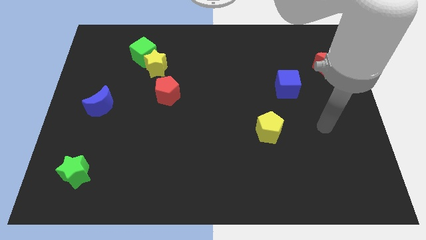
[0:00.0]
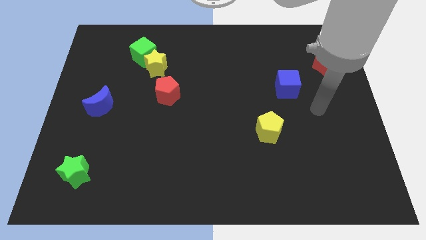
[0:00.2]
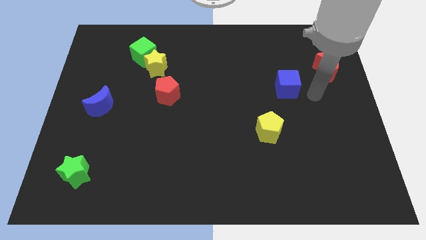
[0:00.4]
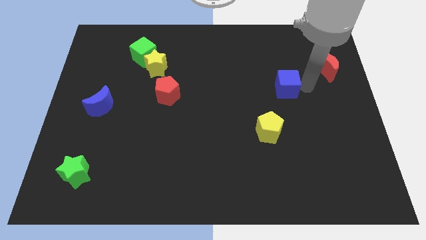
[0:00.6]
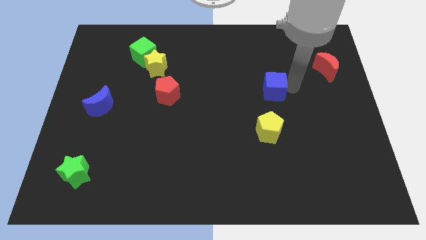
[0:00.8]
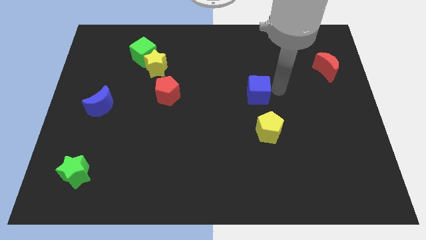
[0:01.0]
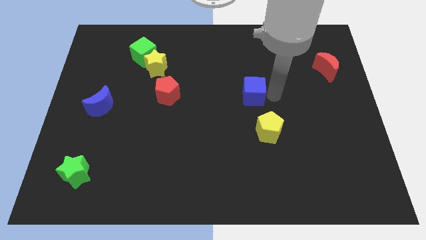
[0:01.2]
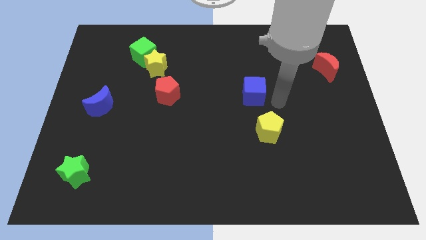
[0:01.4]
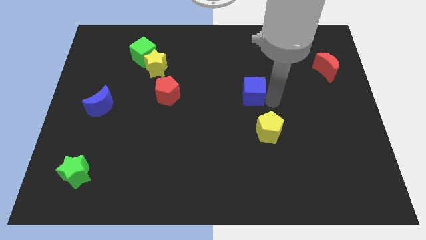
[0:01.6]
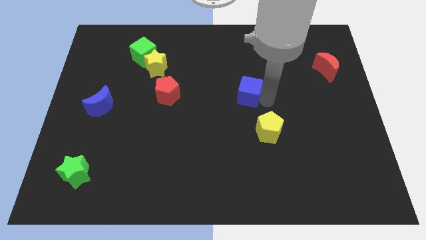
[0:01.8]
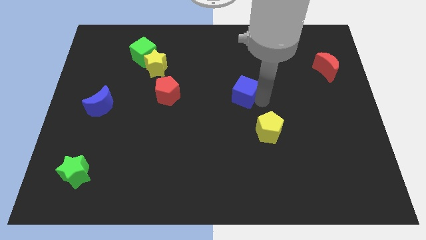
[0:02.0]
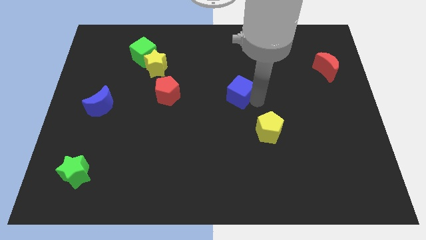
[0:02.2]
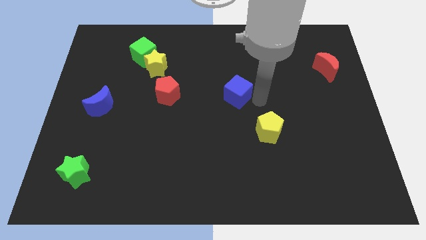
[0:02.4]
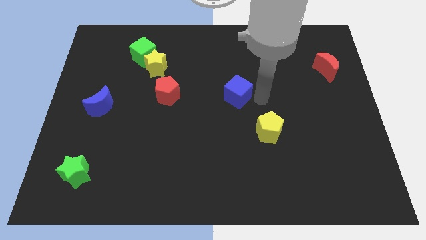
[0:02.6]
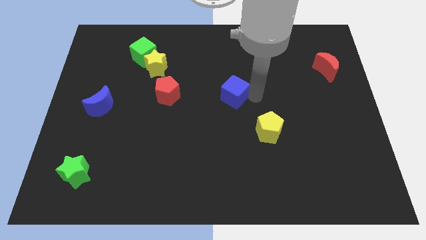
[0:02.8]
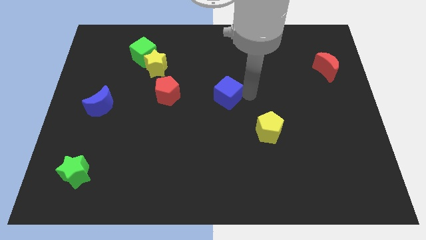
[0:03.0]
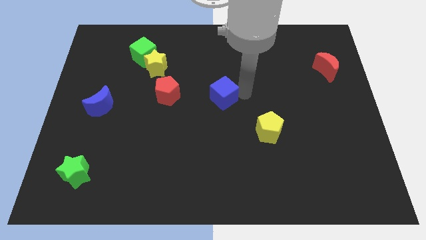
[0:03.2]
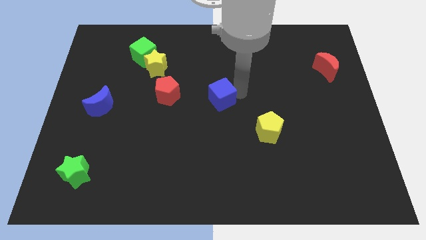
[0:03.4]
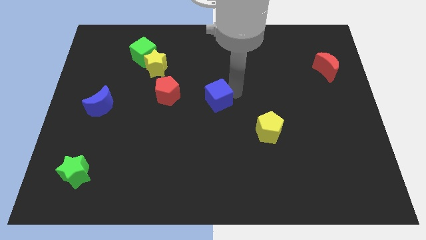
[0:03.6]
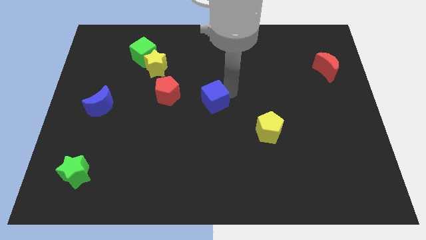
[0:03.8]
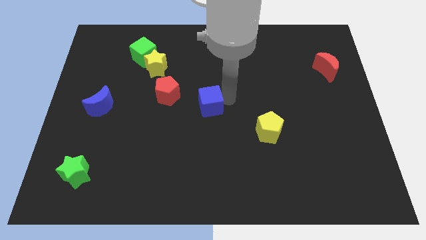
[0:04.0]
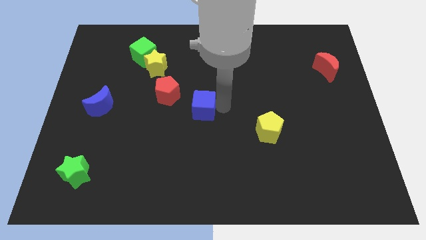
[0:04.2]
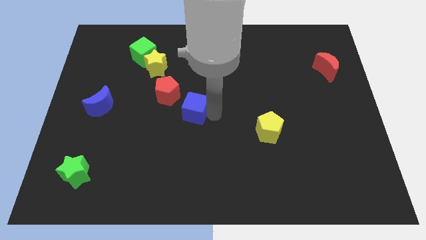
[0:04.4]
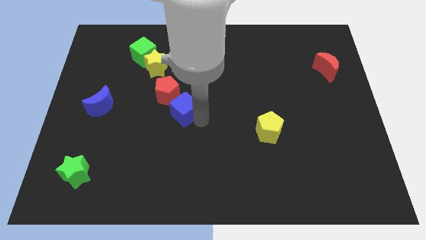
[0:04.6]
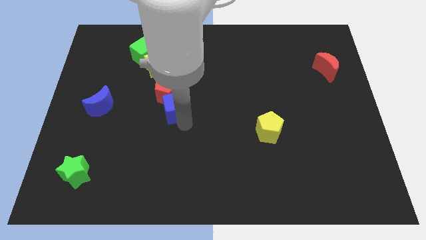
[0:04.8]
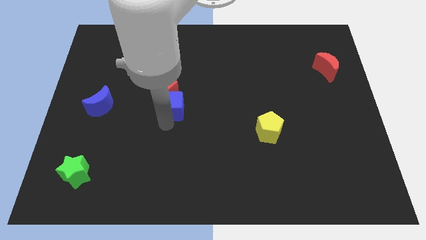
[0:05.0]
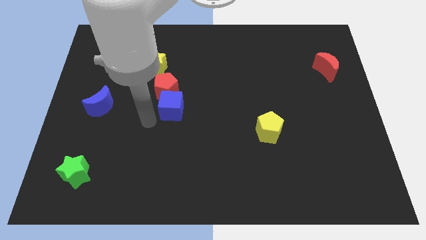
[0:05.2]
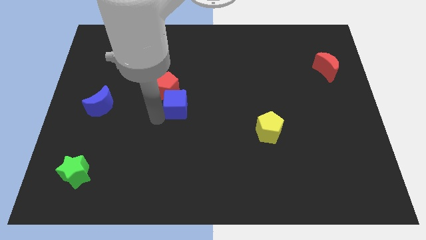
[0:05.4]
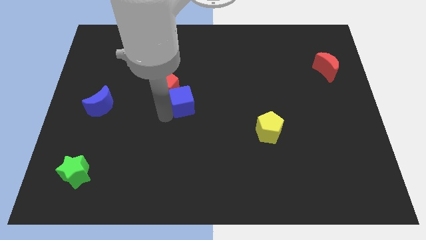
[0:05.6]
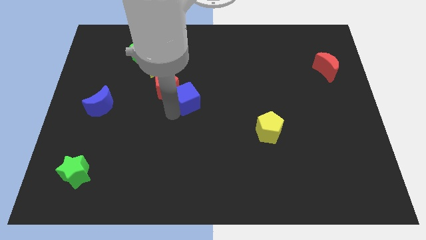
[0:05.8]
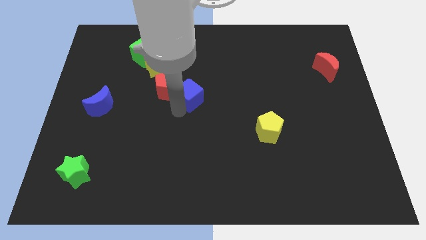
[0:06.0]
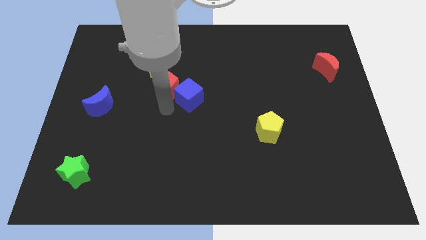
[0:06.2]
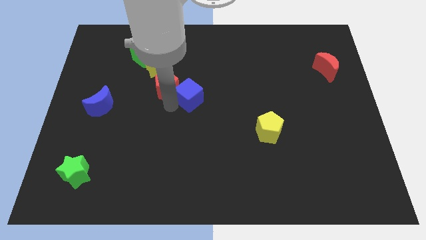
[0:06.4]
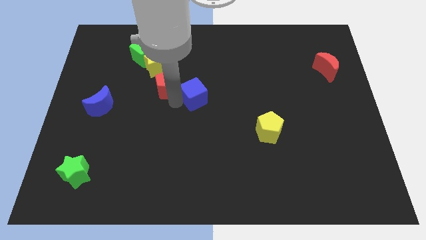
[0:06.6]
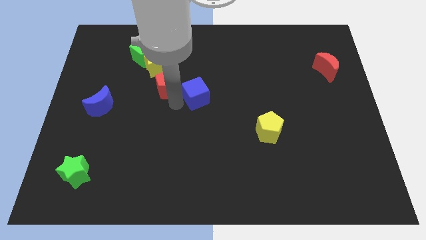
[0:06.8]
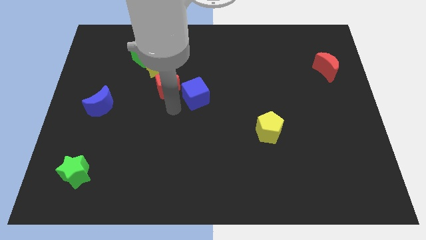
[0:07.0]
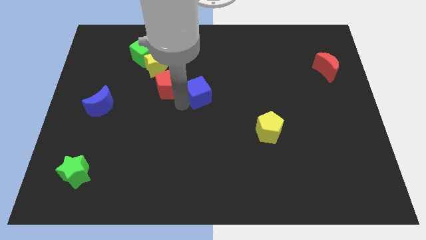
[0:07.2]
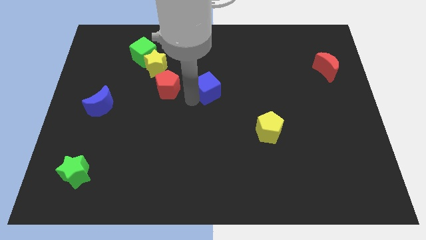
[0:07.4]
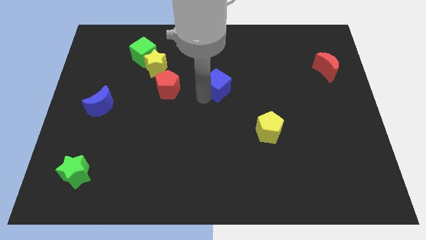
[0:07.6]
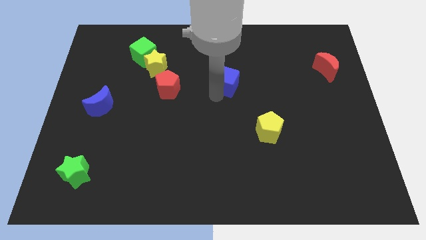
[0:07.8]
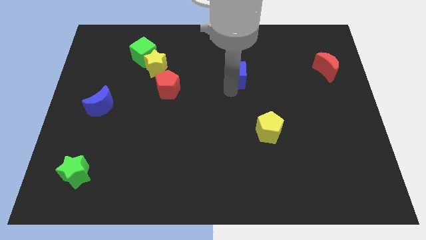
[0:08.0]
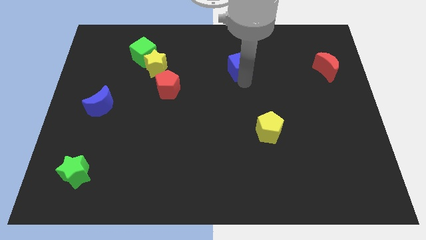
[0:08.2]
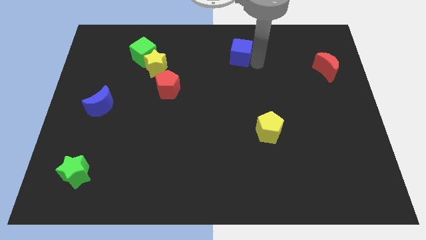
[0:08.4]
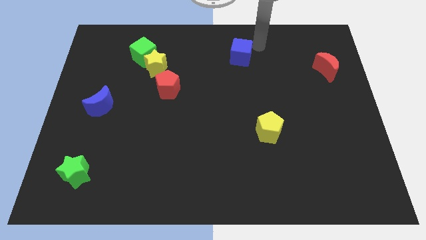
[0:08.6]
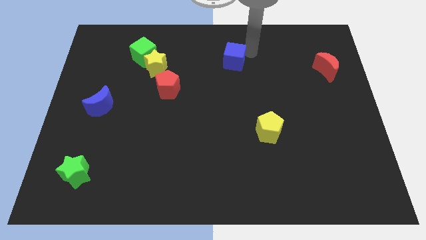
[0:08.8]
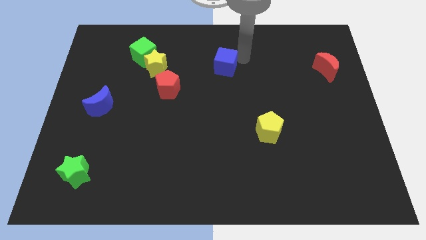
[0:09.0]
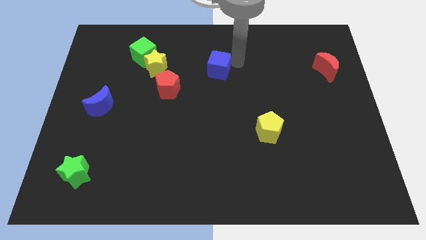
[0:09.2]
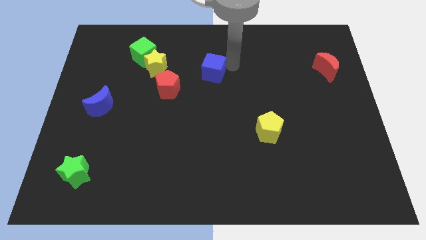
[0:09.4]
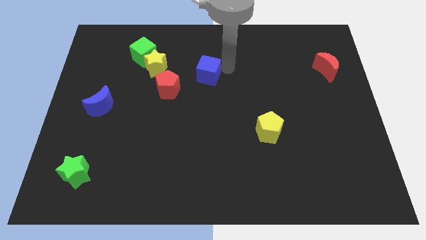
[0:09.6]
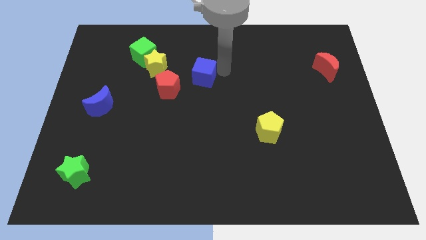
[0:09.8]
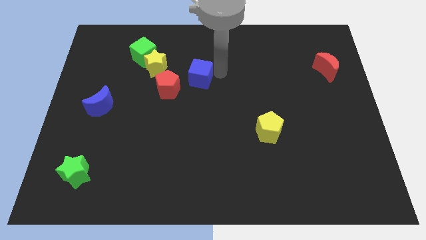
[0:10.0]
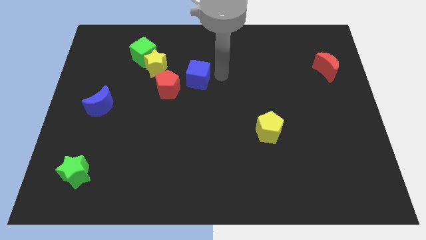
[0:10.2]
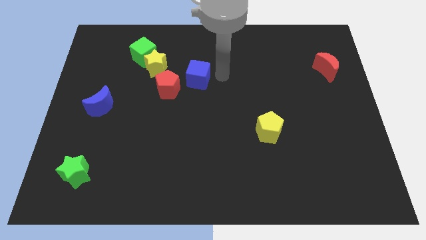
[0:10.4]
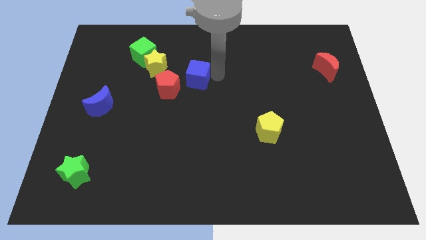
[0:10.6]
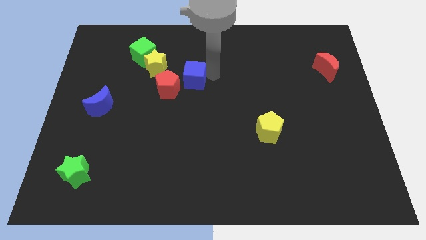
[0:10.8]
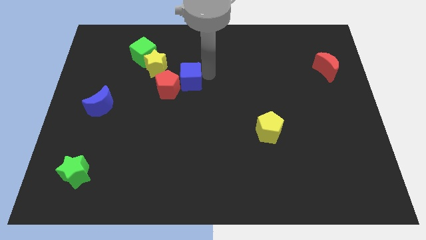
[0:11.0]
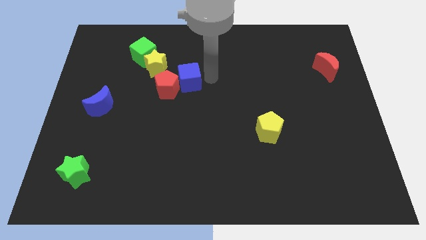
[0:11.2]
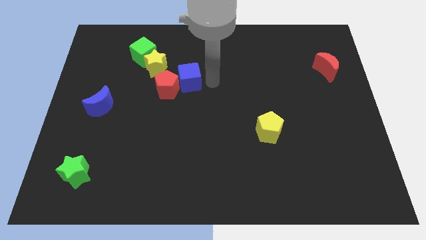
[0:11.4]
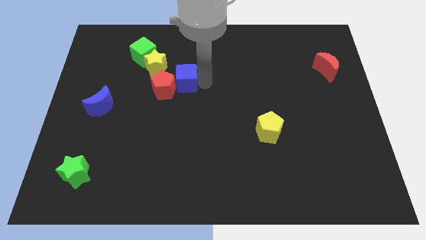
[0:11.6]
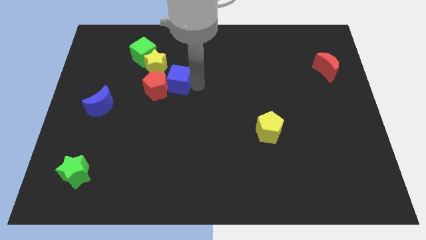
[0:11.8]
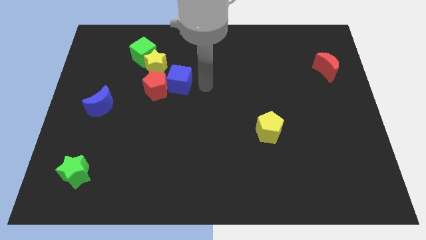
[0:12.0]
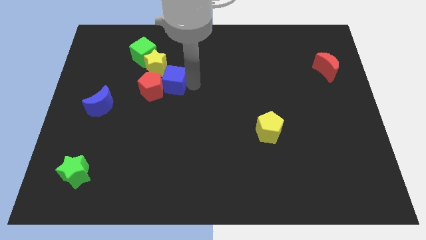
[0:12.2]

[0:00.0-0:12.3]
move the blue cube to the bottom right of the green cube

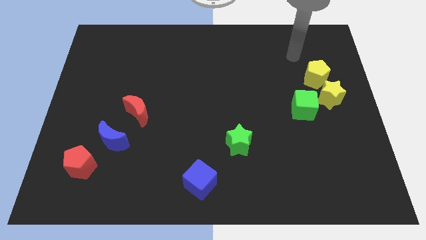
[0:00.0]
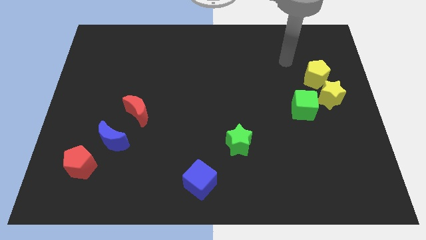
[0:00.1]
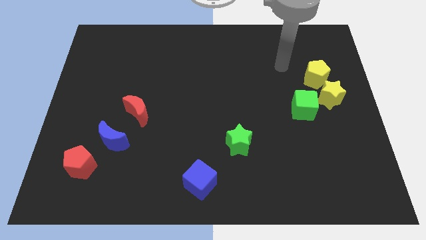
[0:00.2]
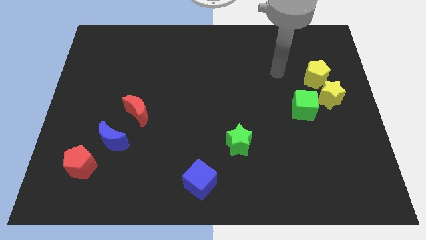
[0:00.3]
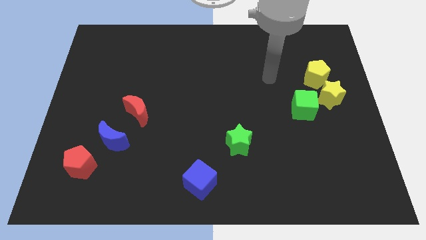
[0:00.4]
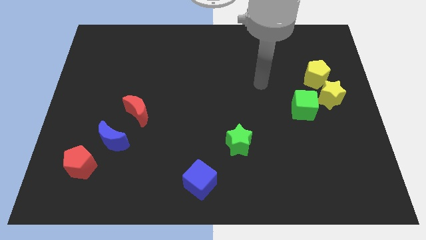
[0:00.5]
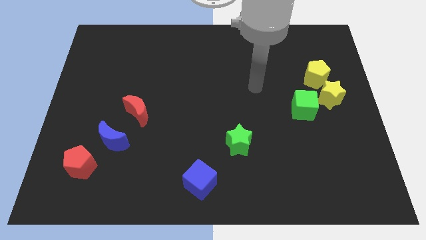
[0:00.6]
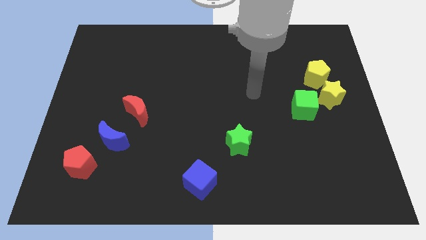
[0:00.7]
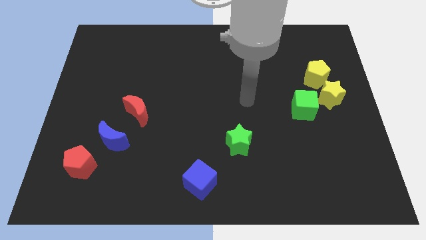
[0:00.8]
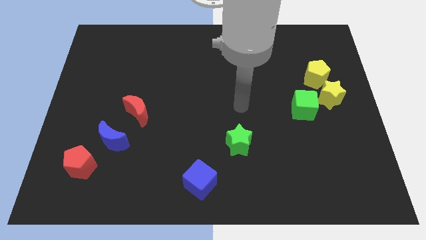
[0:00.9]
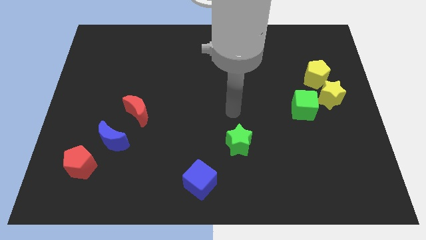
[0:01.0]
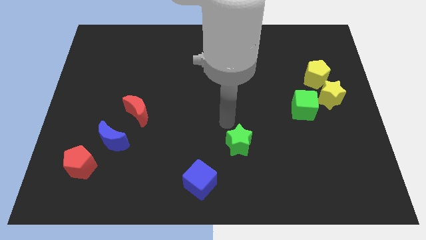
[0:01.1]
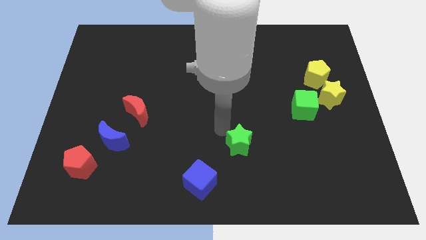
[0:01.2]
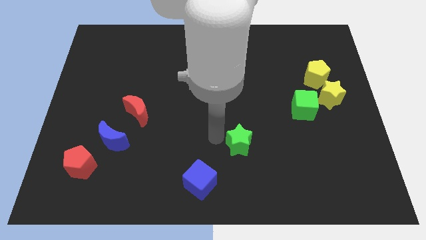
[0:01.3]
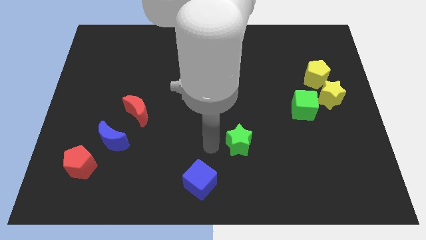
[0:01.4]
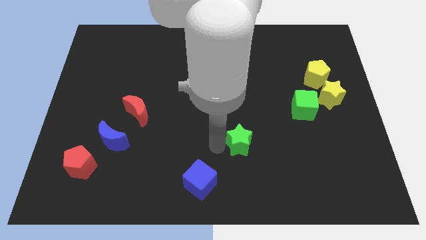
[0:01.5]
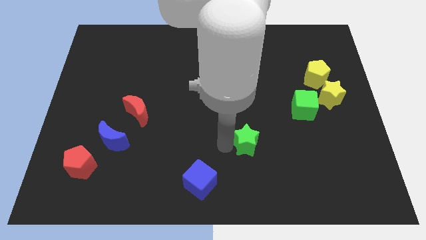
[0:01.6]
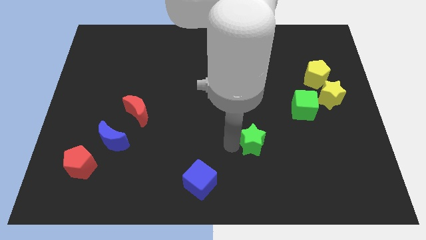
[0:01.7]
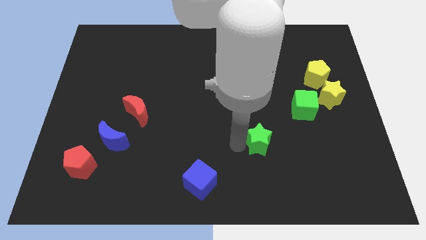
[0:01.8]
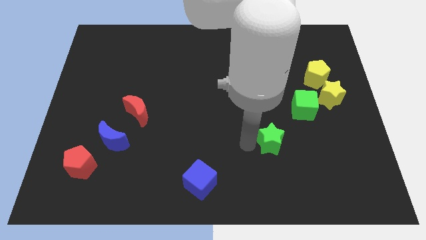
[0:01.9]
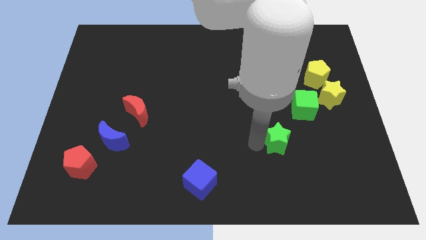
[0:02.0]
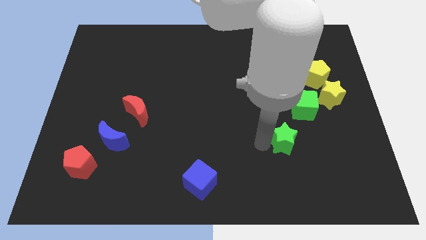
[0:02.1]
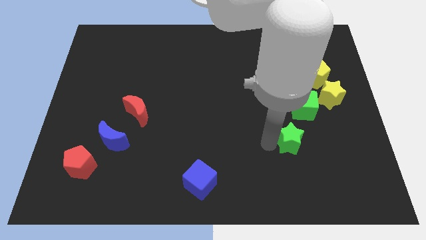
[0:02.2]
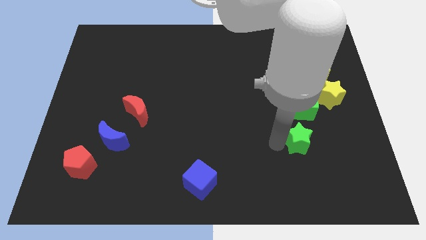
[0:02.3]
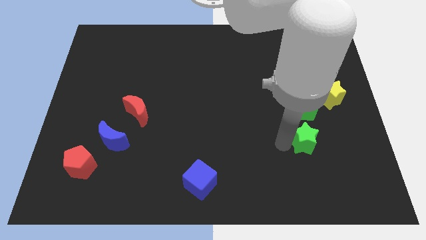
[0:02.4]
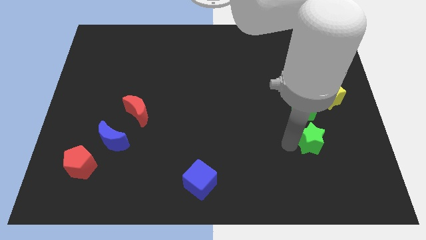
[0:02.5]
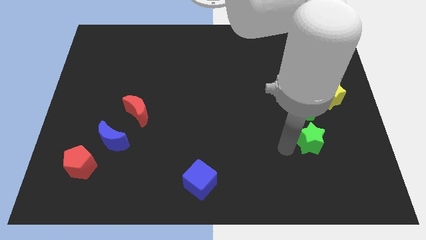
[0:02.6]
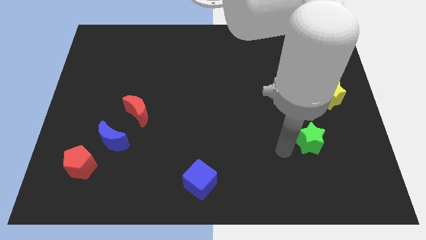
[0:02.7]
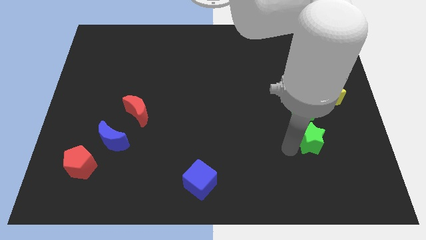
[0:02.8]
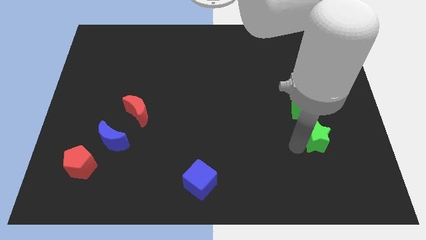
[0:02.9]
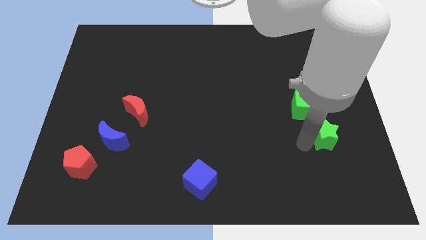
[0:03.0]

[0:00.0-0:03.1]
put the green star to the bottom side of the yellow star
